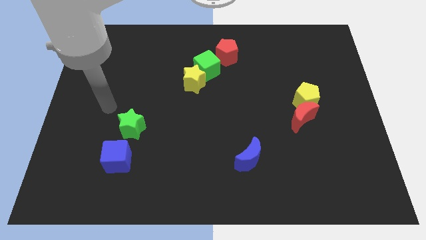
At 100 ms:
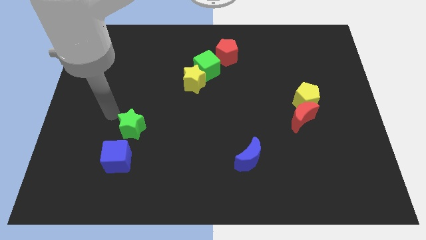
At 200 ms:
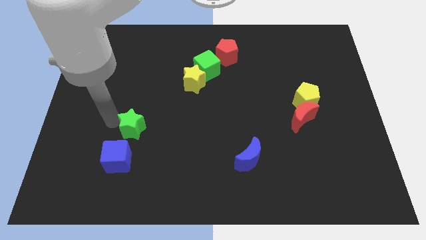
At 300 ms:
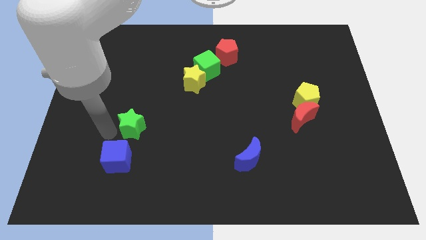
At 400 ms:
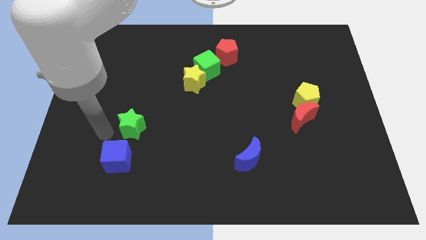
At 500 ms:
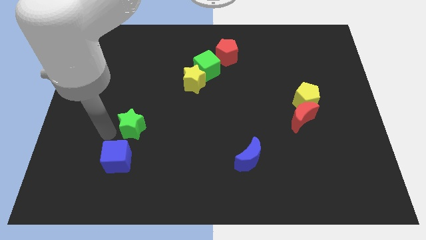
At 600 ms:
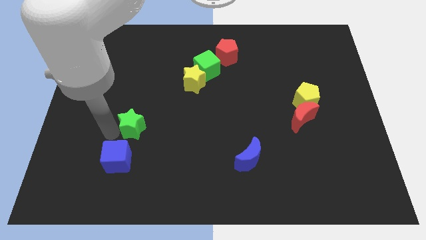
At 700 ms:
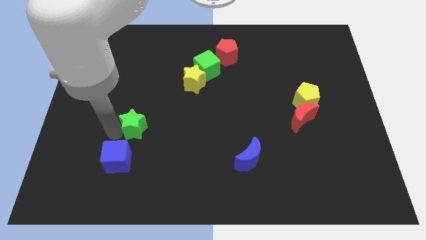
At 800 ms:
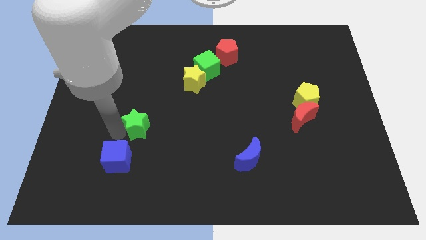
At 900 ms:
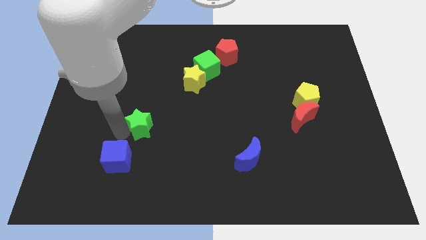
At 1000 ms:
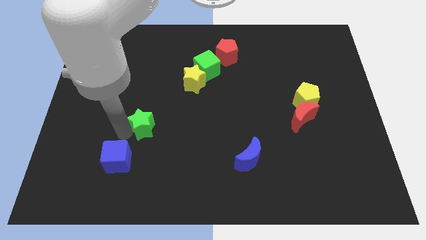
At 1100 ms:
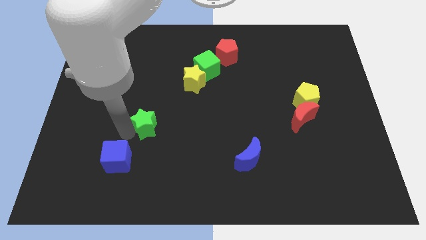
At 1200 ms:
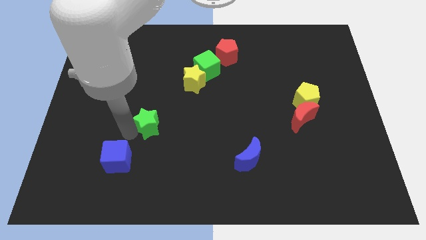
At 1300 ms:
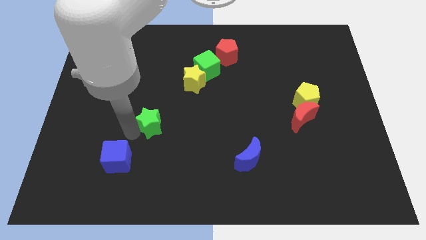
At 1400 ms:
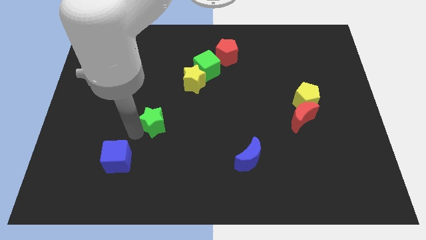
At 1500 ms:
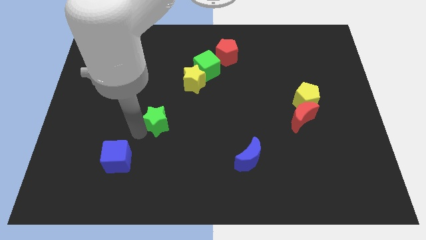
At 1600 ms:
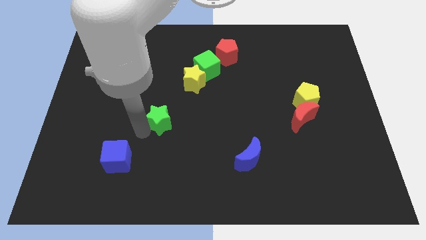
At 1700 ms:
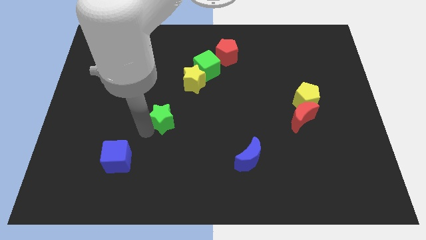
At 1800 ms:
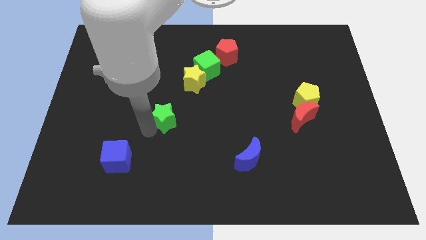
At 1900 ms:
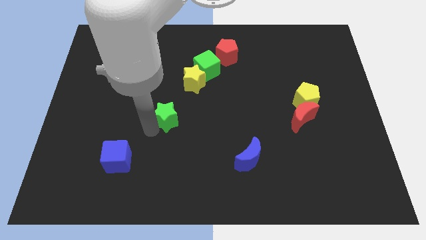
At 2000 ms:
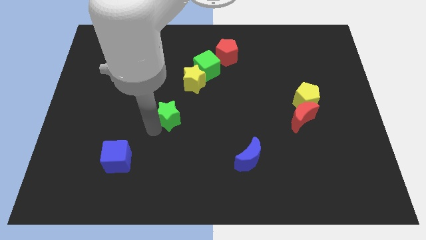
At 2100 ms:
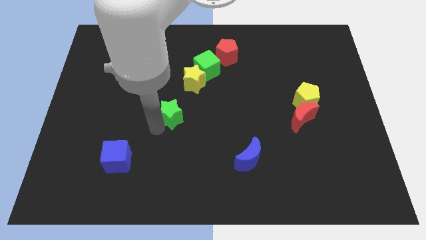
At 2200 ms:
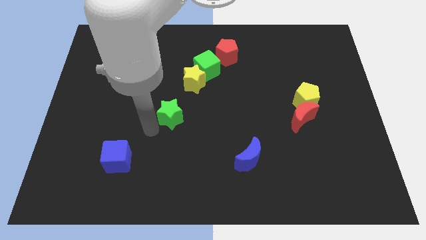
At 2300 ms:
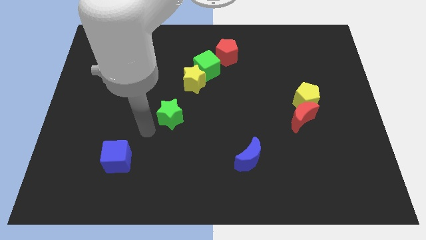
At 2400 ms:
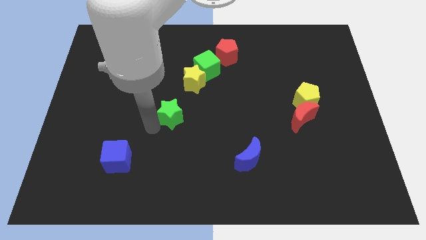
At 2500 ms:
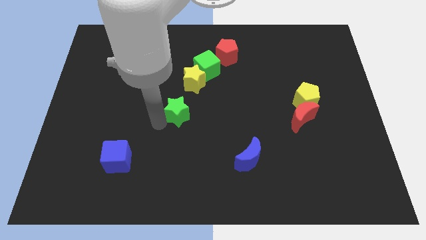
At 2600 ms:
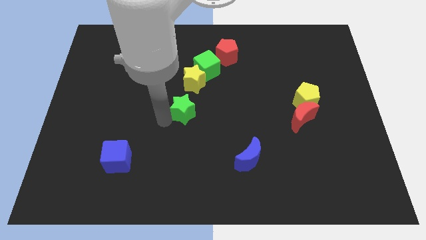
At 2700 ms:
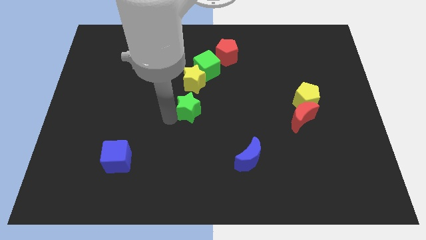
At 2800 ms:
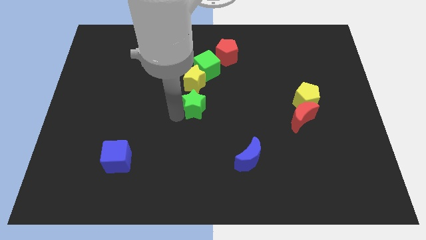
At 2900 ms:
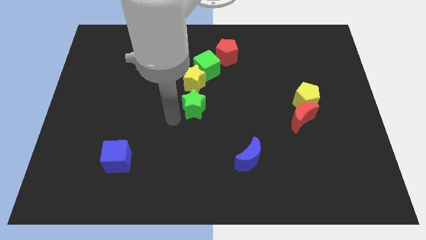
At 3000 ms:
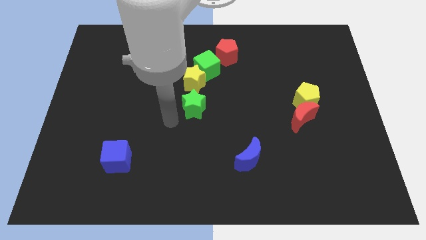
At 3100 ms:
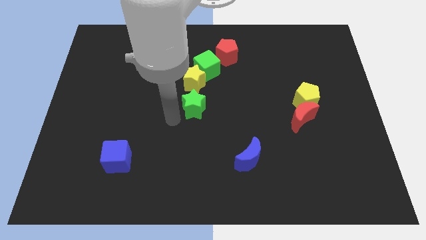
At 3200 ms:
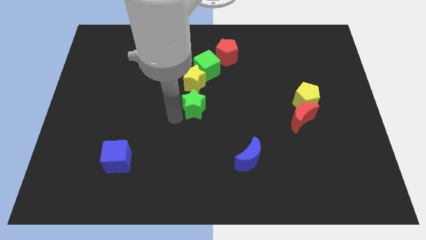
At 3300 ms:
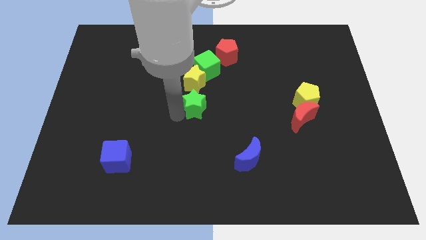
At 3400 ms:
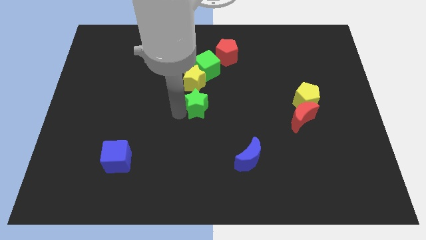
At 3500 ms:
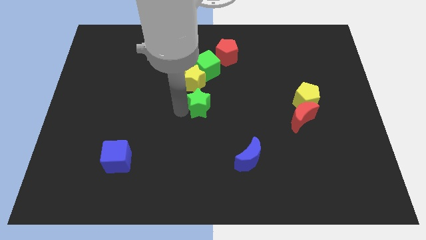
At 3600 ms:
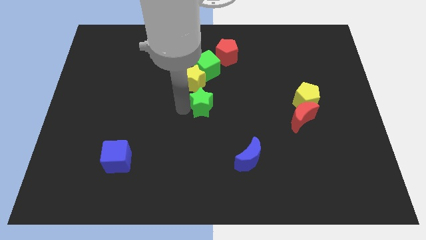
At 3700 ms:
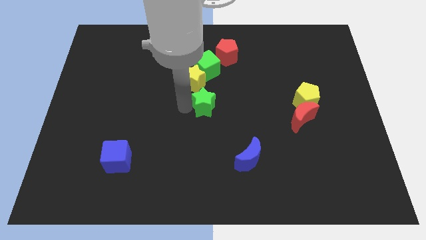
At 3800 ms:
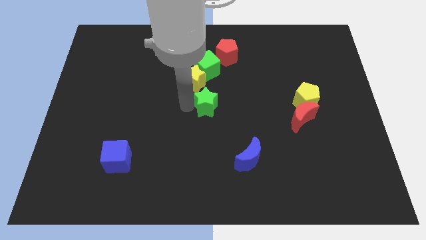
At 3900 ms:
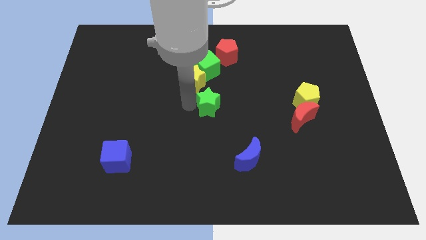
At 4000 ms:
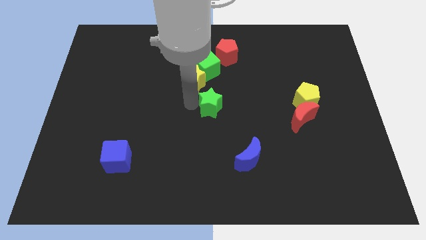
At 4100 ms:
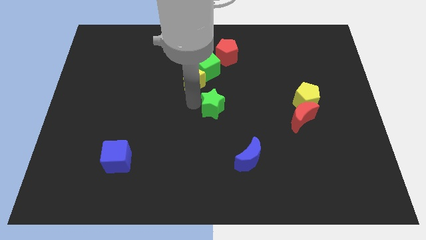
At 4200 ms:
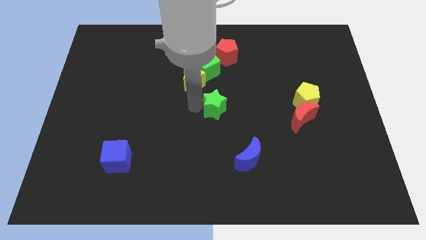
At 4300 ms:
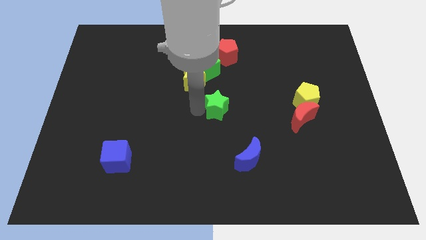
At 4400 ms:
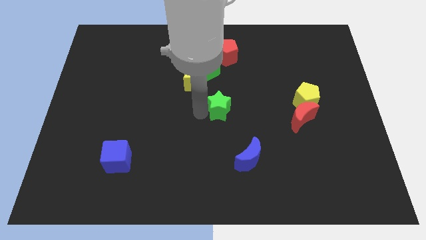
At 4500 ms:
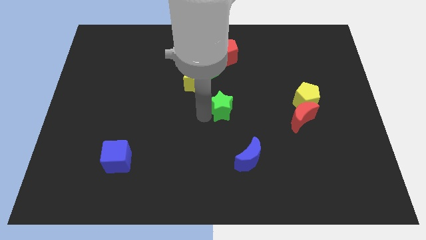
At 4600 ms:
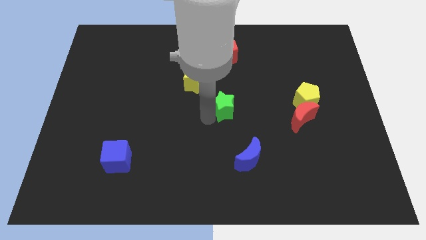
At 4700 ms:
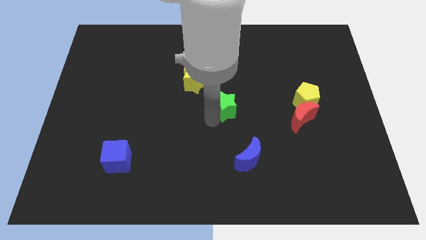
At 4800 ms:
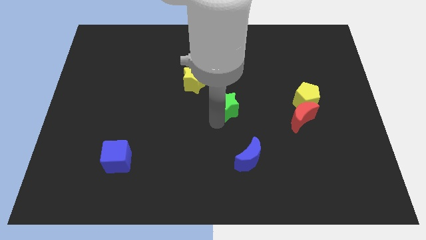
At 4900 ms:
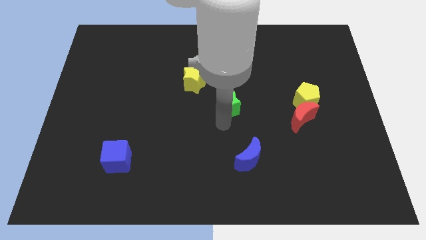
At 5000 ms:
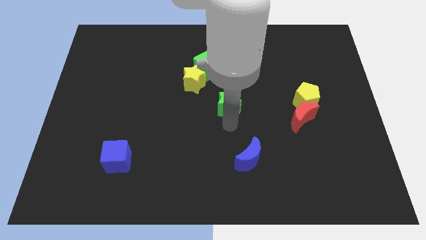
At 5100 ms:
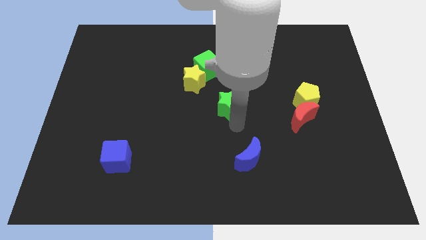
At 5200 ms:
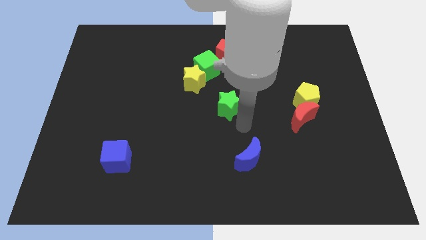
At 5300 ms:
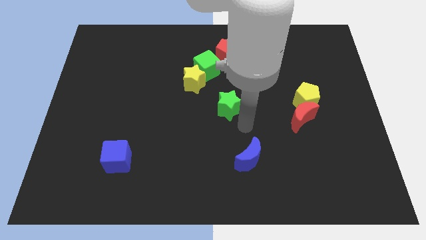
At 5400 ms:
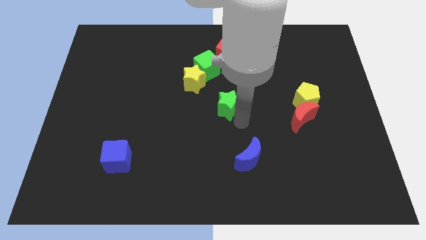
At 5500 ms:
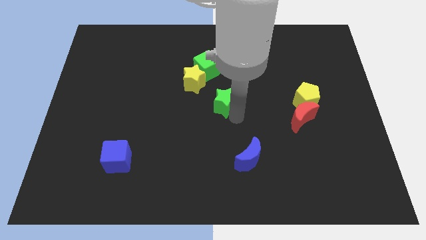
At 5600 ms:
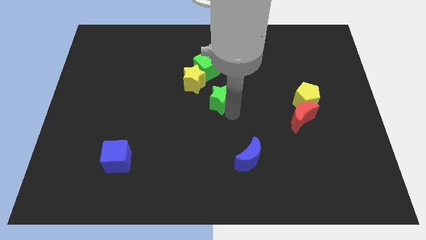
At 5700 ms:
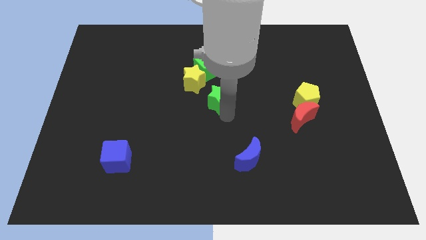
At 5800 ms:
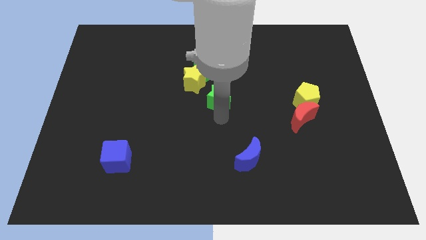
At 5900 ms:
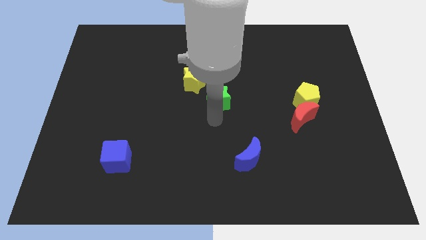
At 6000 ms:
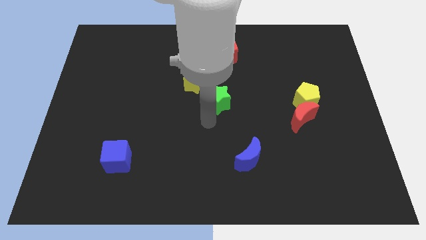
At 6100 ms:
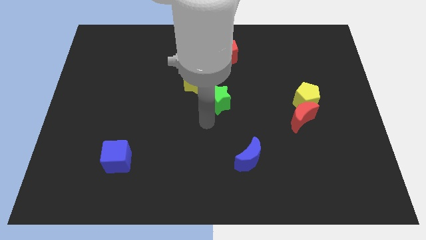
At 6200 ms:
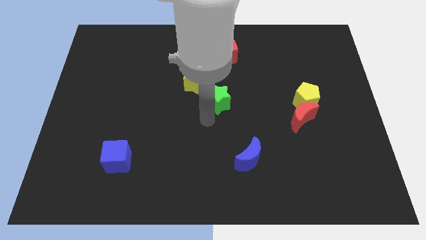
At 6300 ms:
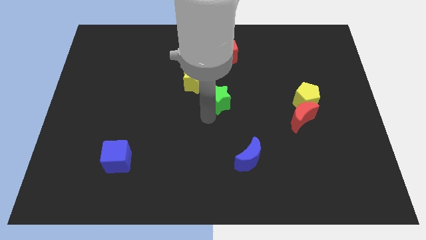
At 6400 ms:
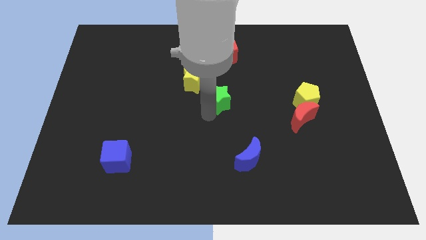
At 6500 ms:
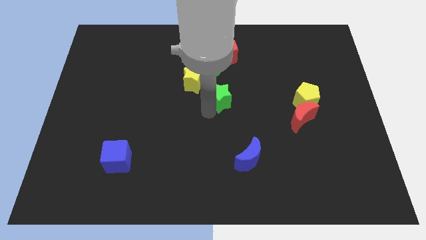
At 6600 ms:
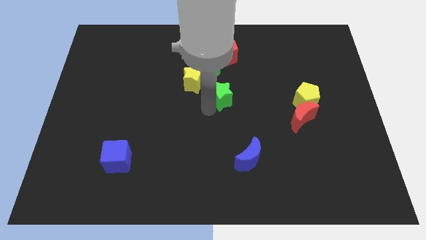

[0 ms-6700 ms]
move the green star to the bottom right side of the green cube
